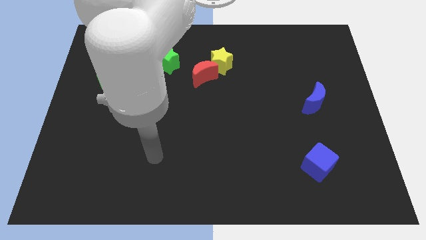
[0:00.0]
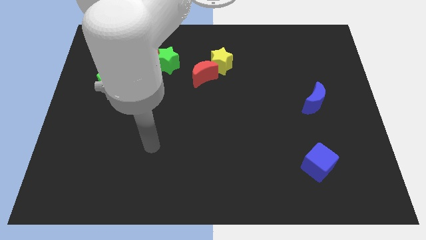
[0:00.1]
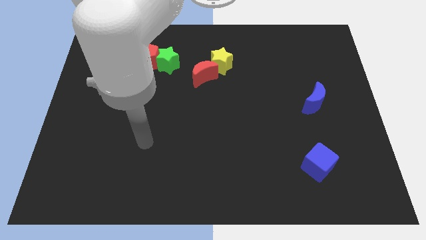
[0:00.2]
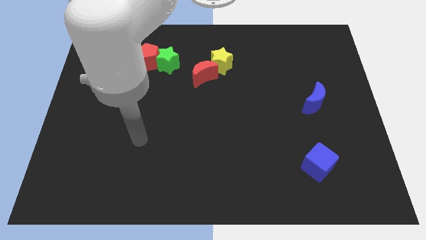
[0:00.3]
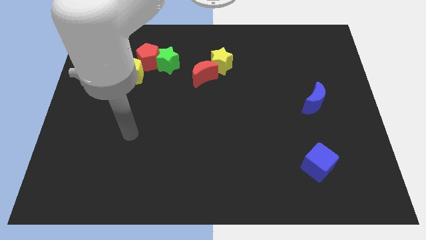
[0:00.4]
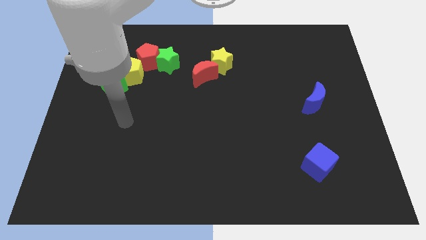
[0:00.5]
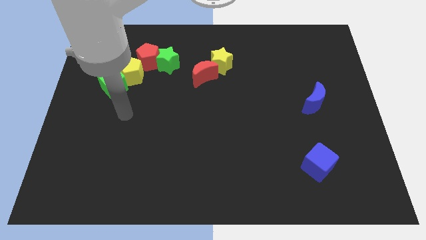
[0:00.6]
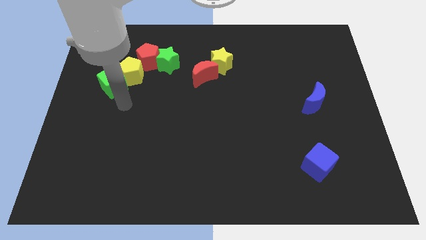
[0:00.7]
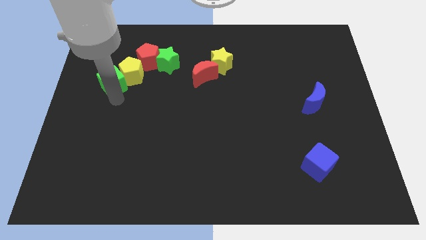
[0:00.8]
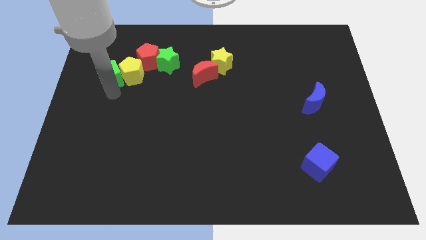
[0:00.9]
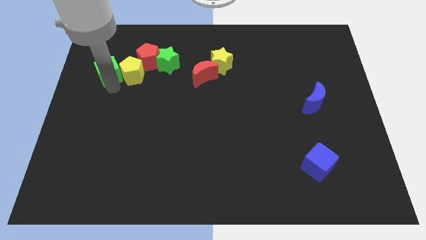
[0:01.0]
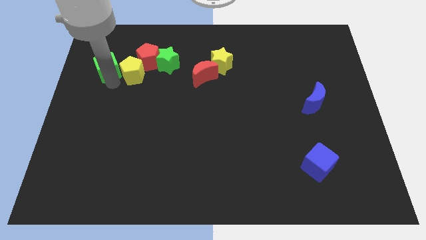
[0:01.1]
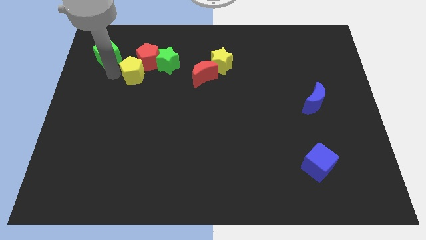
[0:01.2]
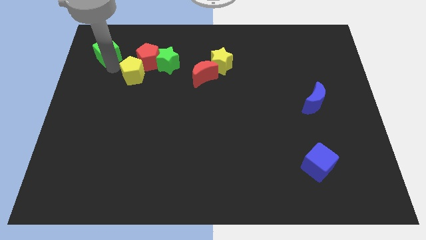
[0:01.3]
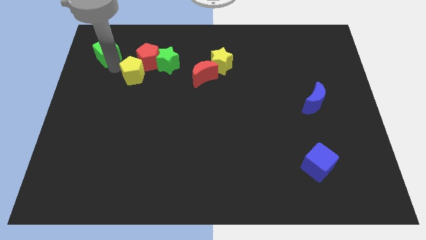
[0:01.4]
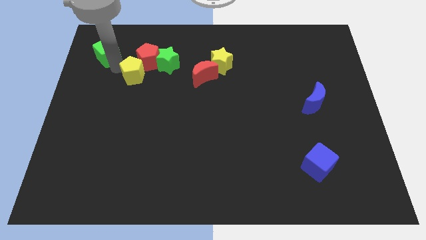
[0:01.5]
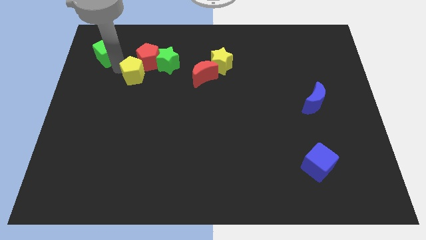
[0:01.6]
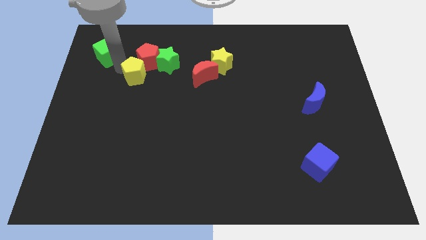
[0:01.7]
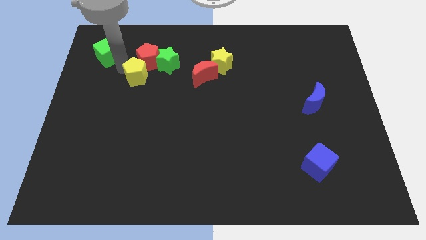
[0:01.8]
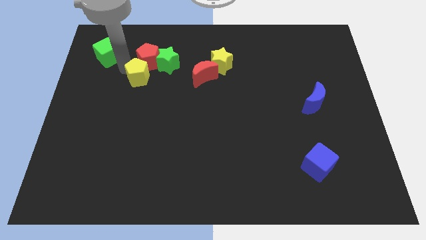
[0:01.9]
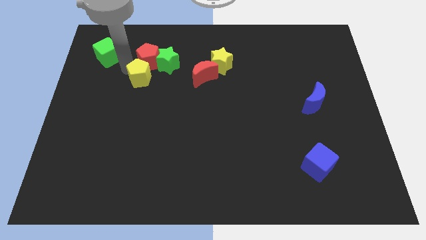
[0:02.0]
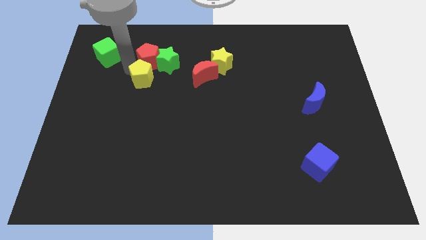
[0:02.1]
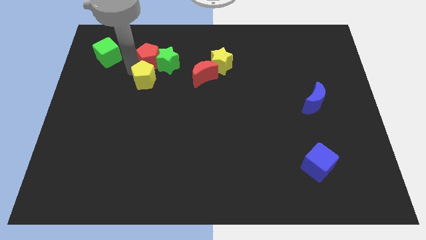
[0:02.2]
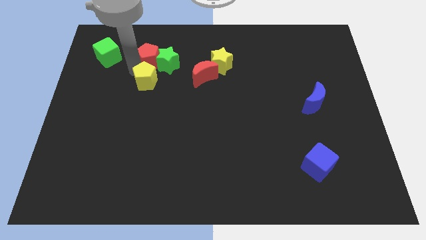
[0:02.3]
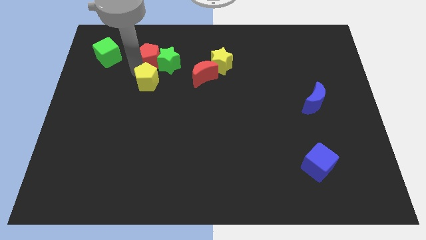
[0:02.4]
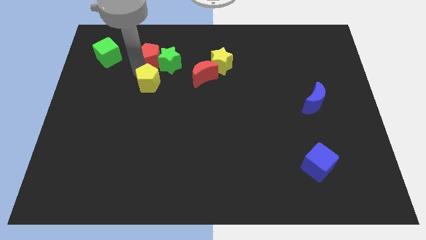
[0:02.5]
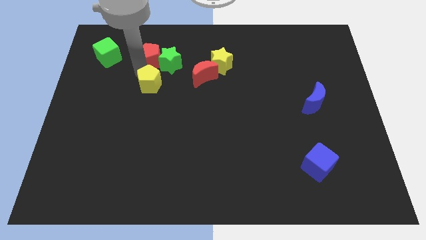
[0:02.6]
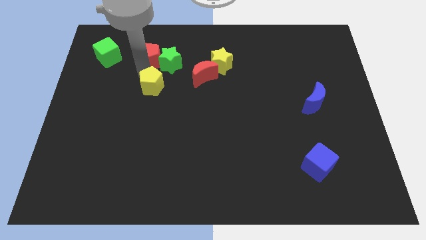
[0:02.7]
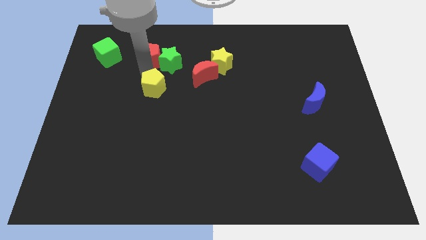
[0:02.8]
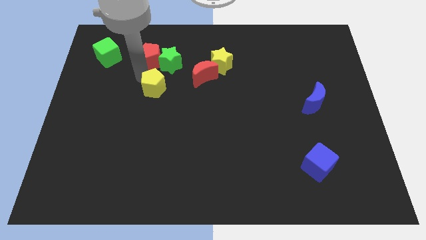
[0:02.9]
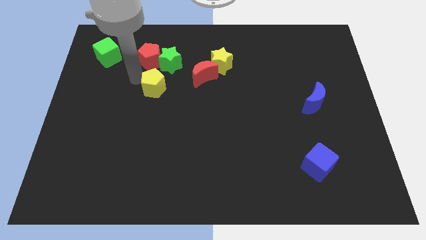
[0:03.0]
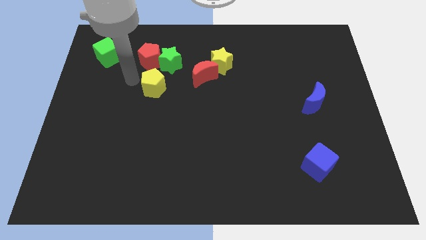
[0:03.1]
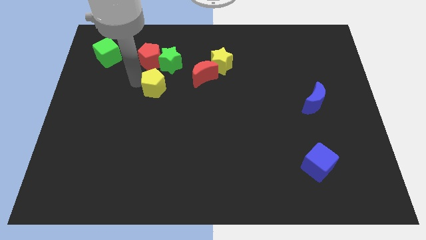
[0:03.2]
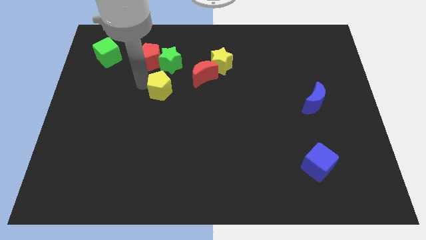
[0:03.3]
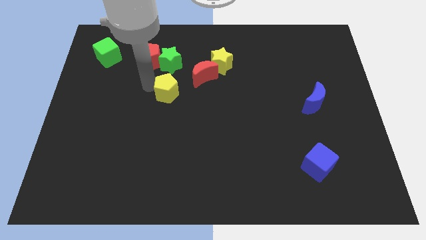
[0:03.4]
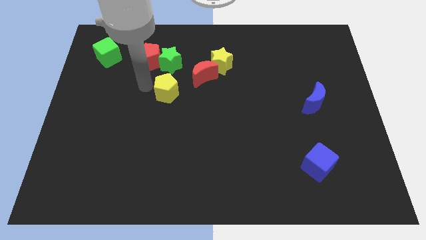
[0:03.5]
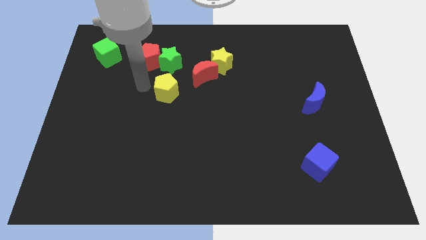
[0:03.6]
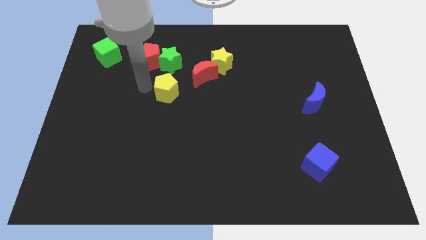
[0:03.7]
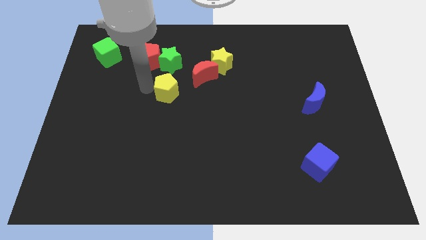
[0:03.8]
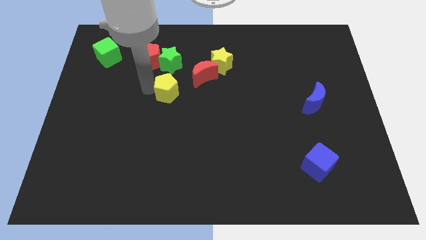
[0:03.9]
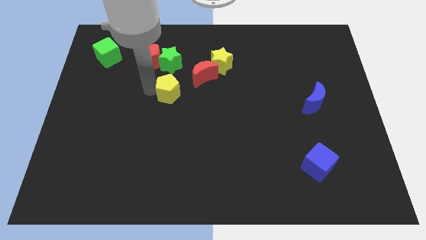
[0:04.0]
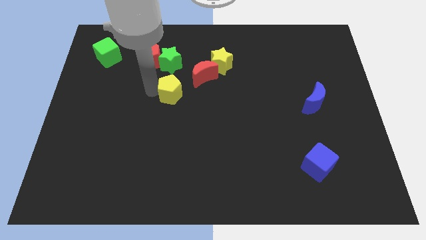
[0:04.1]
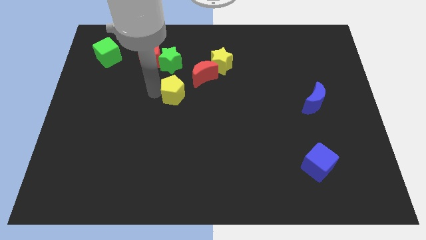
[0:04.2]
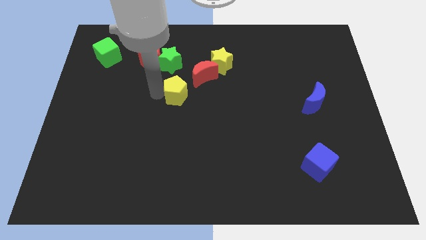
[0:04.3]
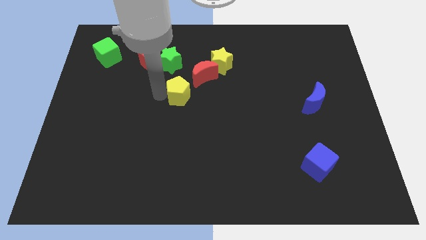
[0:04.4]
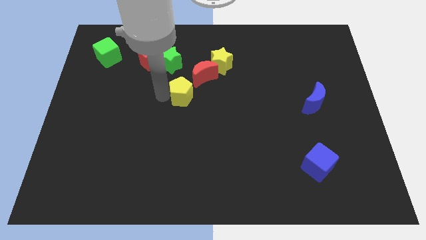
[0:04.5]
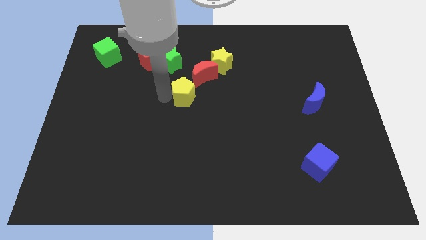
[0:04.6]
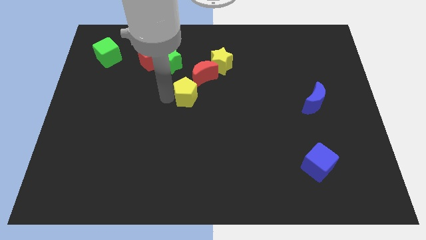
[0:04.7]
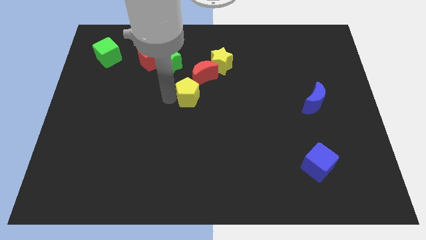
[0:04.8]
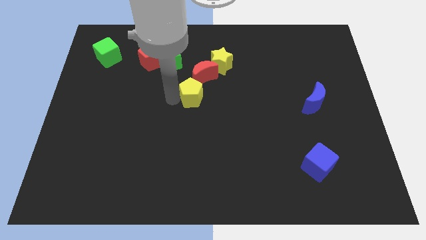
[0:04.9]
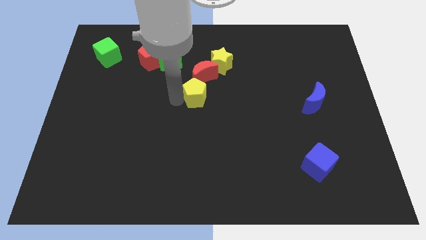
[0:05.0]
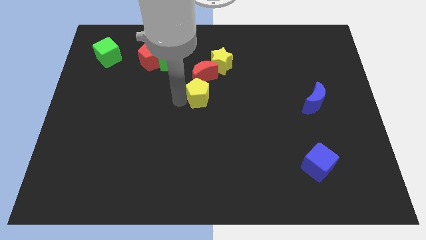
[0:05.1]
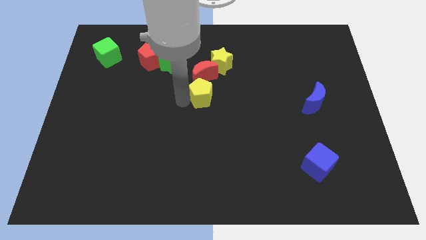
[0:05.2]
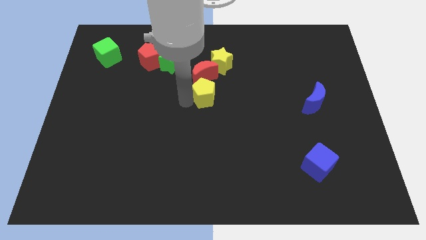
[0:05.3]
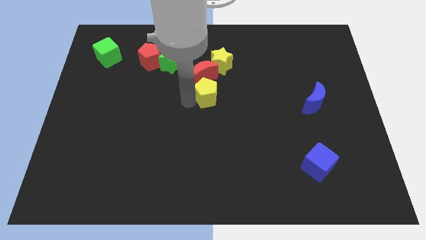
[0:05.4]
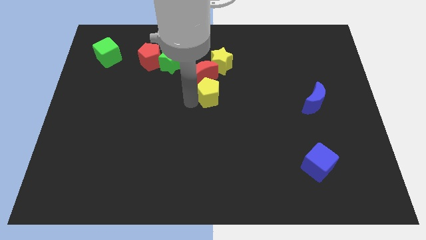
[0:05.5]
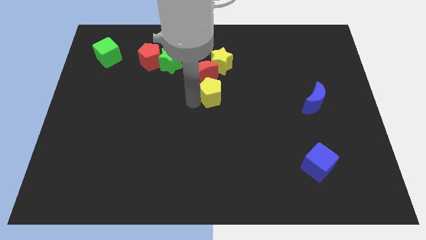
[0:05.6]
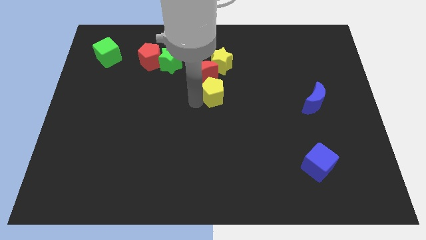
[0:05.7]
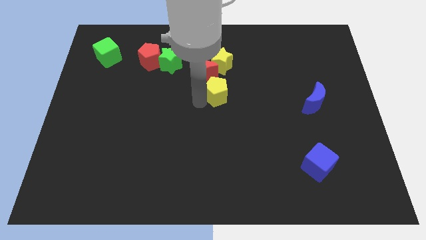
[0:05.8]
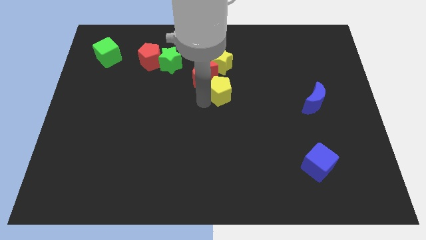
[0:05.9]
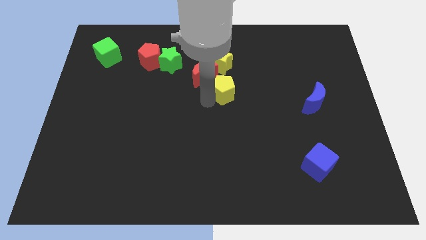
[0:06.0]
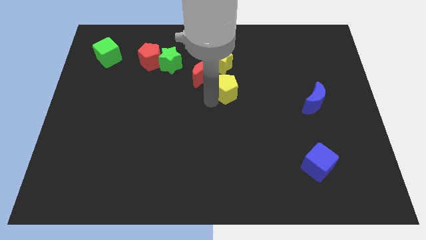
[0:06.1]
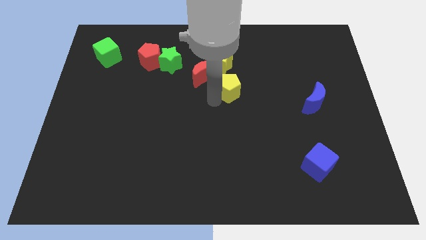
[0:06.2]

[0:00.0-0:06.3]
move the yellow pentagon to the right of the red moon

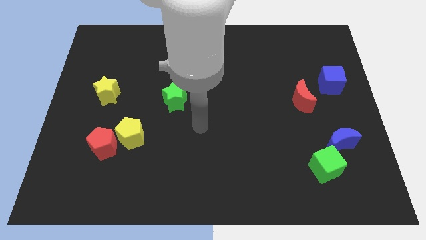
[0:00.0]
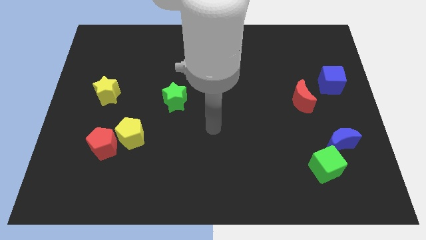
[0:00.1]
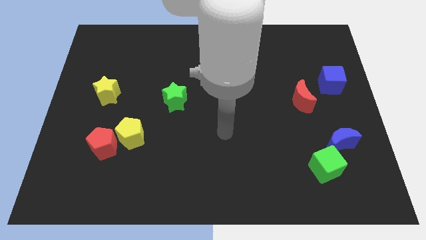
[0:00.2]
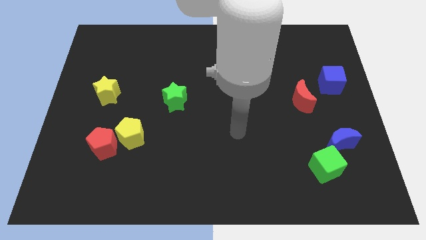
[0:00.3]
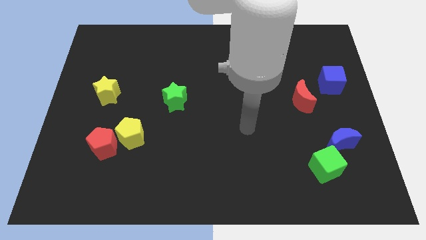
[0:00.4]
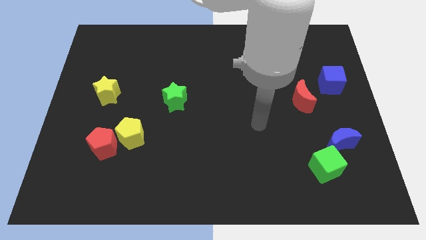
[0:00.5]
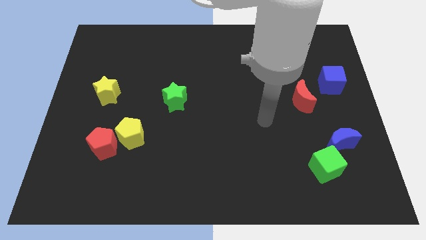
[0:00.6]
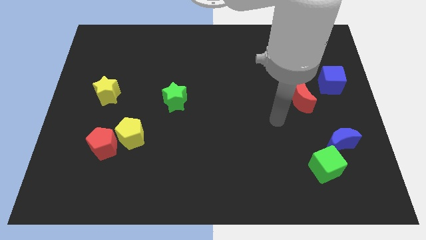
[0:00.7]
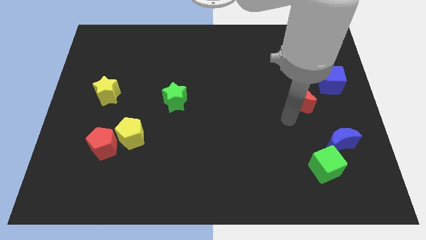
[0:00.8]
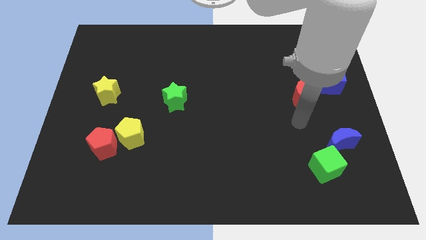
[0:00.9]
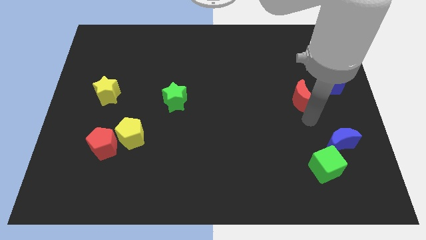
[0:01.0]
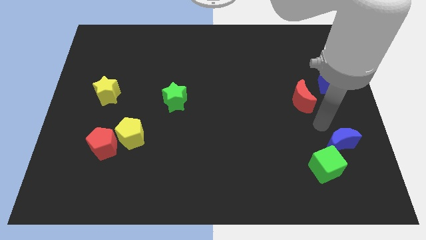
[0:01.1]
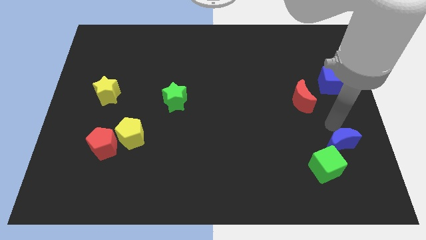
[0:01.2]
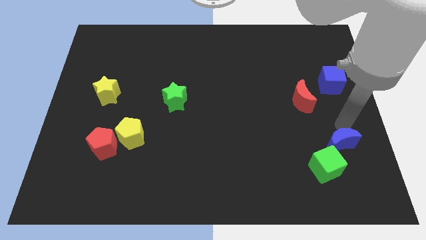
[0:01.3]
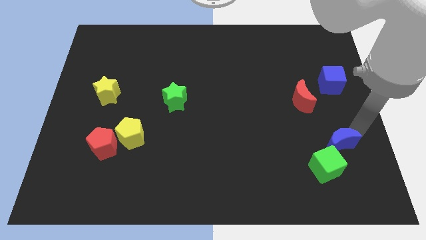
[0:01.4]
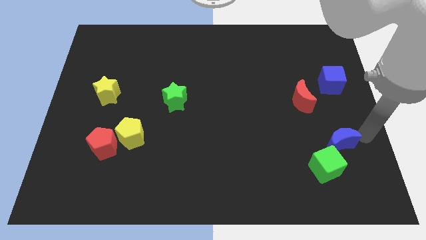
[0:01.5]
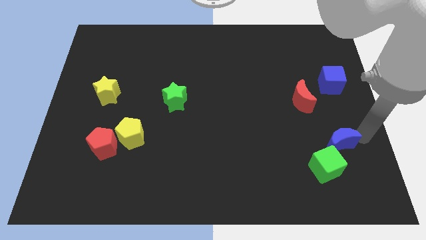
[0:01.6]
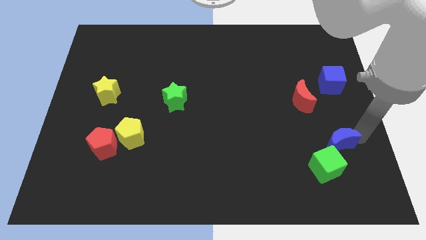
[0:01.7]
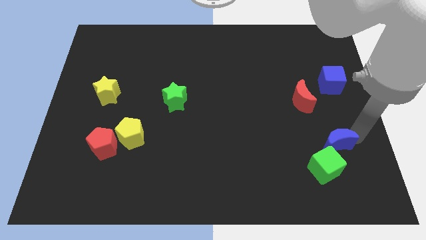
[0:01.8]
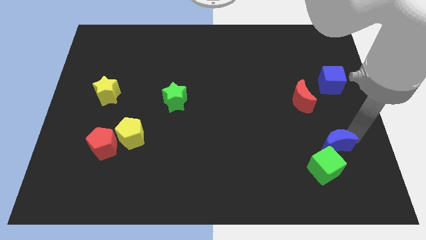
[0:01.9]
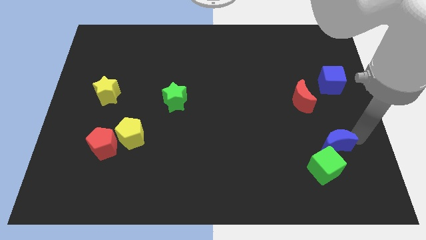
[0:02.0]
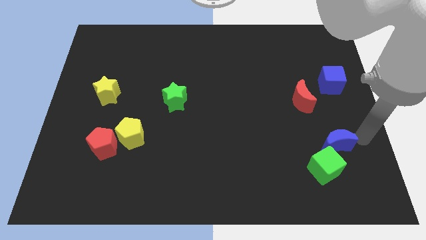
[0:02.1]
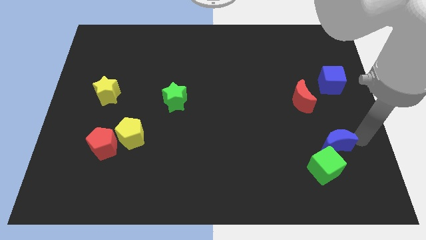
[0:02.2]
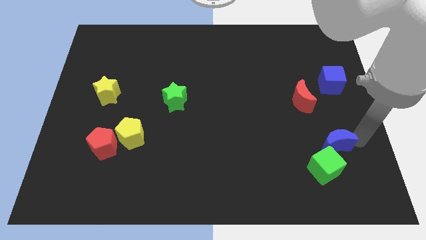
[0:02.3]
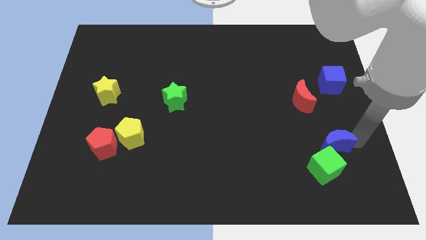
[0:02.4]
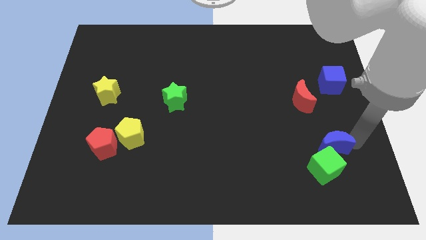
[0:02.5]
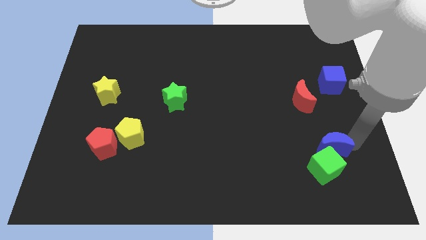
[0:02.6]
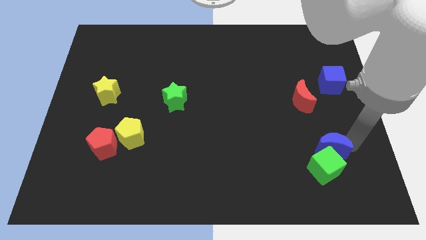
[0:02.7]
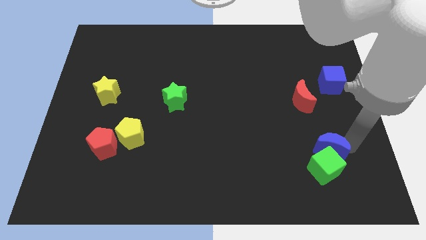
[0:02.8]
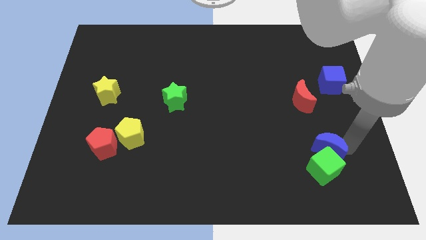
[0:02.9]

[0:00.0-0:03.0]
push the blue moon to the top left of the green cube
